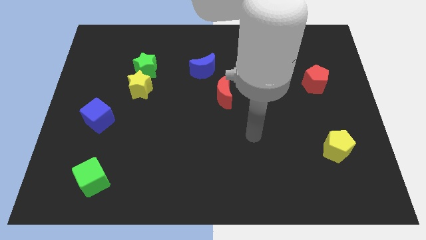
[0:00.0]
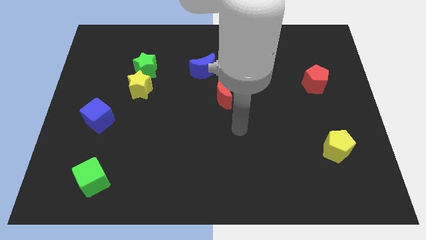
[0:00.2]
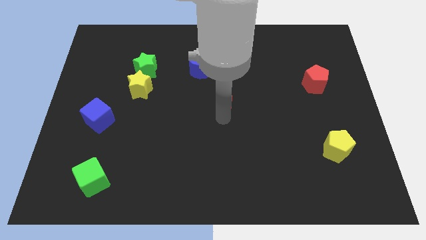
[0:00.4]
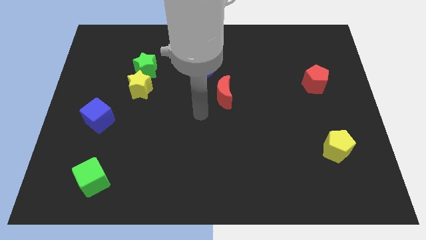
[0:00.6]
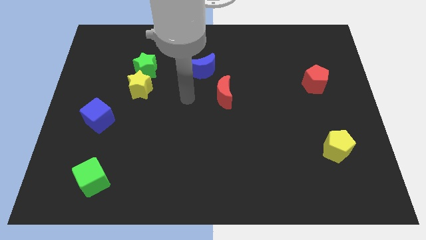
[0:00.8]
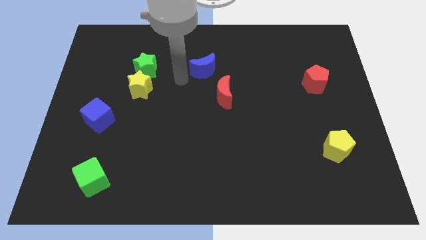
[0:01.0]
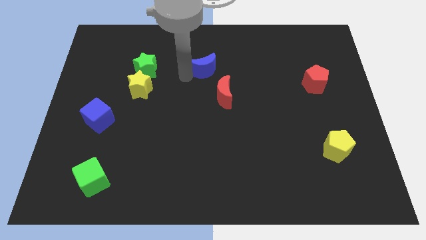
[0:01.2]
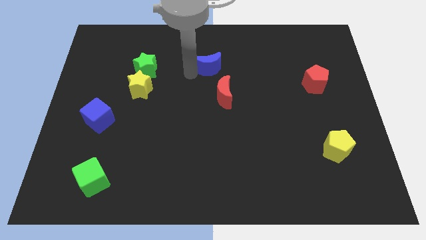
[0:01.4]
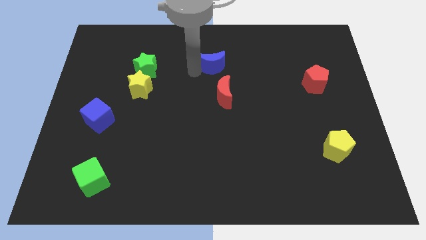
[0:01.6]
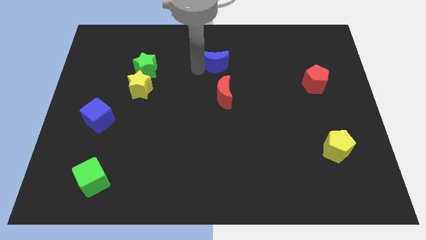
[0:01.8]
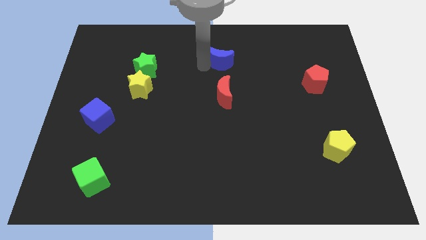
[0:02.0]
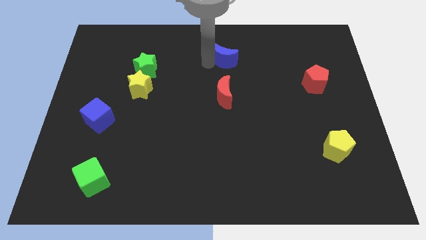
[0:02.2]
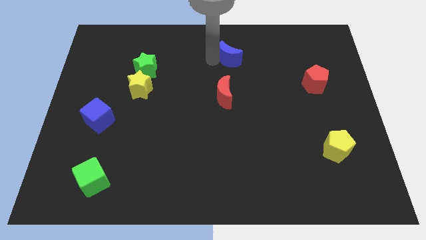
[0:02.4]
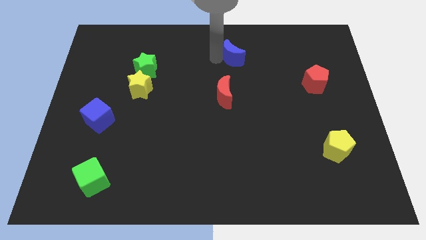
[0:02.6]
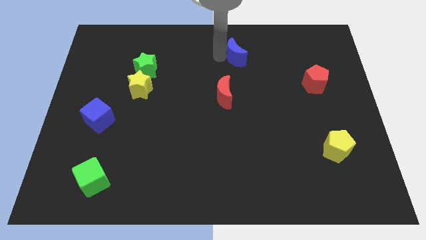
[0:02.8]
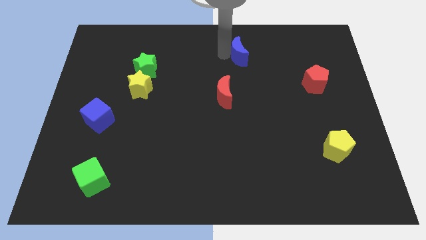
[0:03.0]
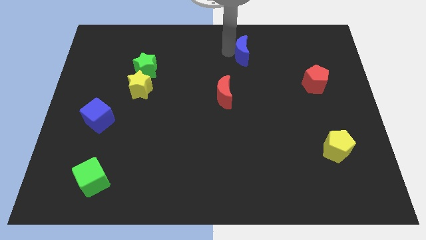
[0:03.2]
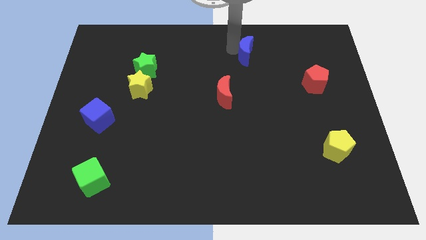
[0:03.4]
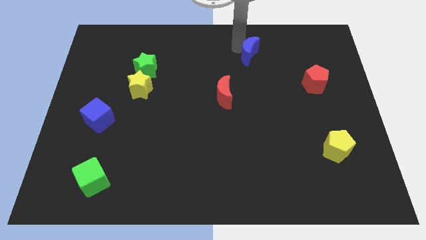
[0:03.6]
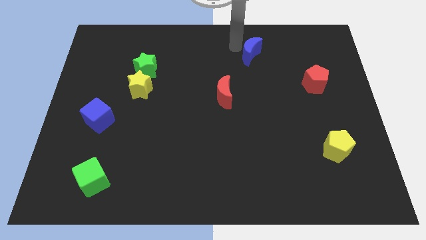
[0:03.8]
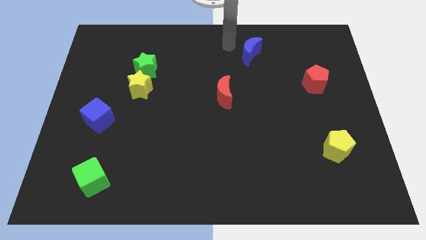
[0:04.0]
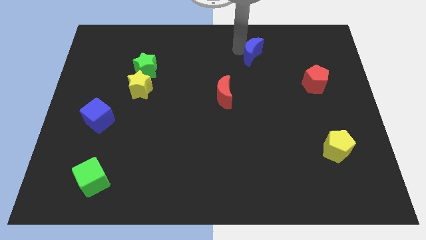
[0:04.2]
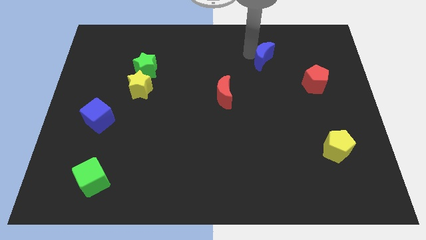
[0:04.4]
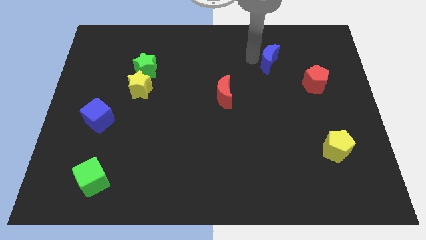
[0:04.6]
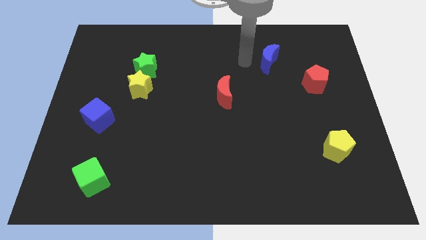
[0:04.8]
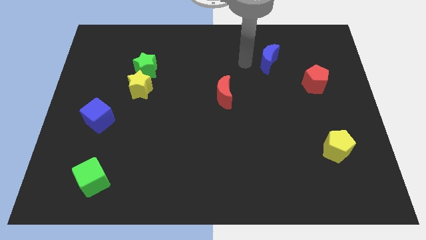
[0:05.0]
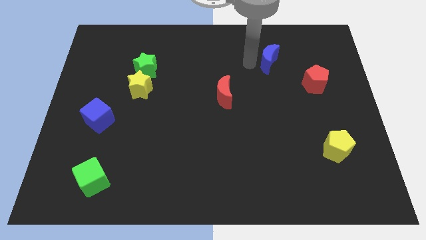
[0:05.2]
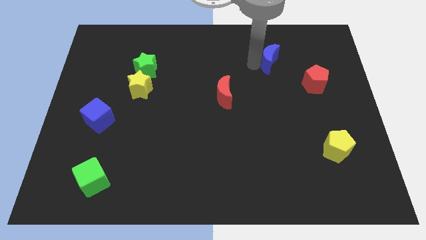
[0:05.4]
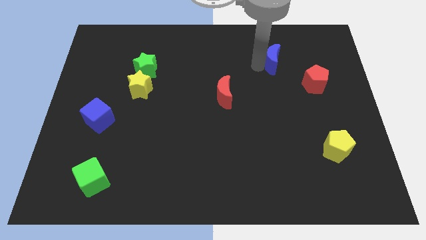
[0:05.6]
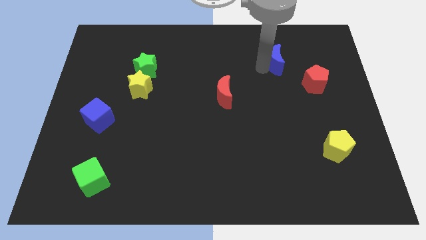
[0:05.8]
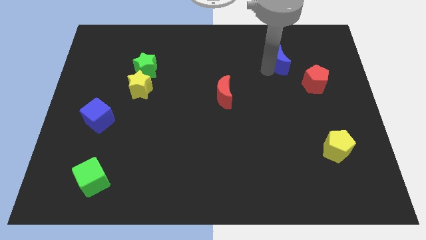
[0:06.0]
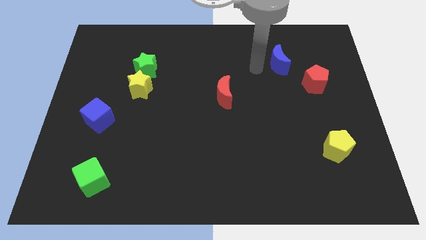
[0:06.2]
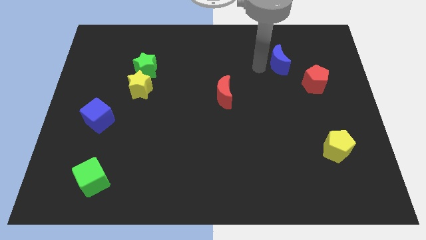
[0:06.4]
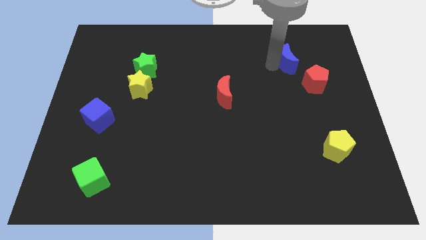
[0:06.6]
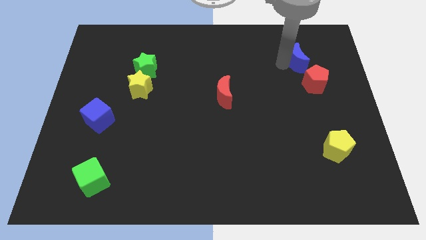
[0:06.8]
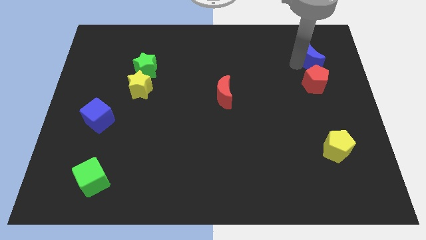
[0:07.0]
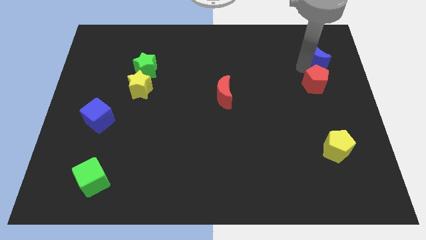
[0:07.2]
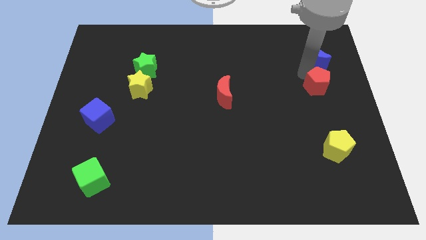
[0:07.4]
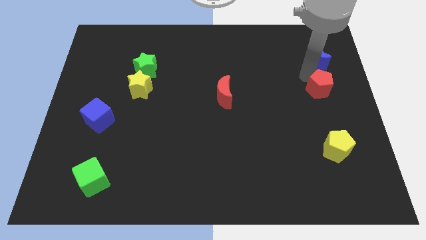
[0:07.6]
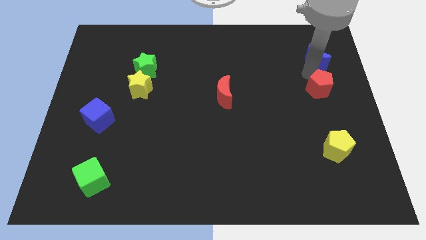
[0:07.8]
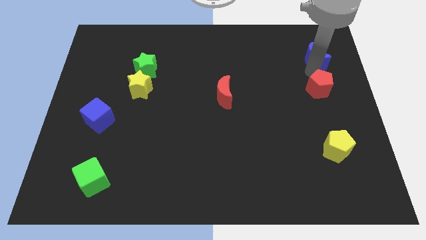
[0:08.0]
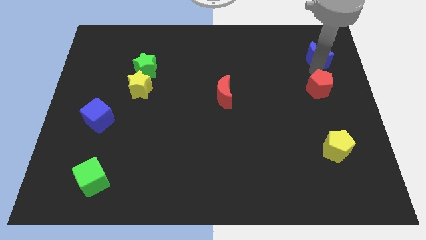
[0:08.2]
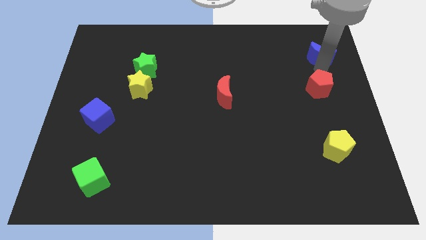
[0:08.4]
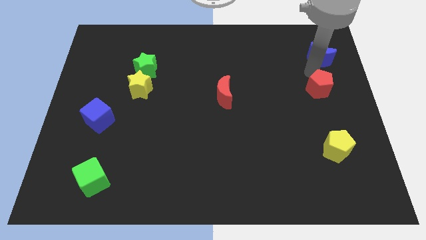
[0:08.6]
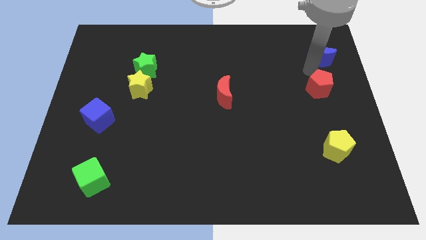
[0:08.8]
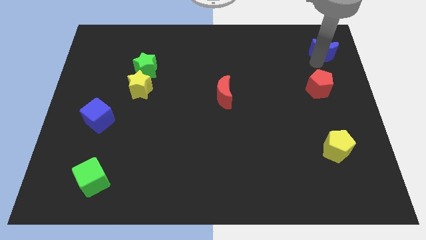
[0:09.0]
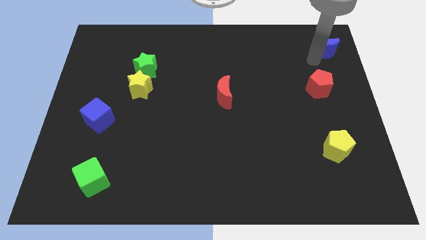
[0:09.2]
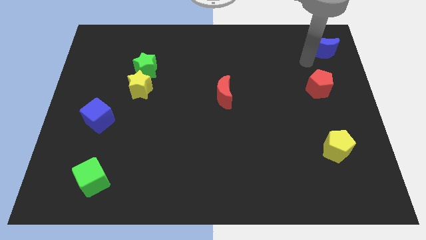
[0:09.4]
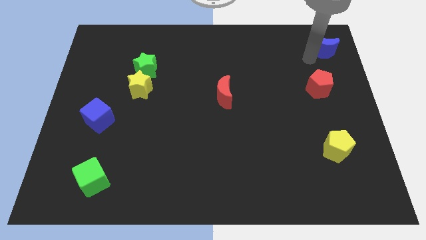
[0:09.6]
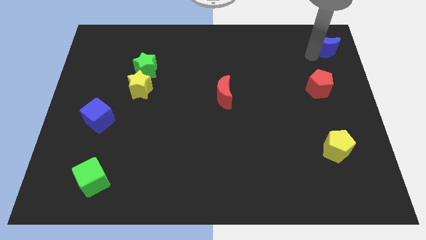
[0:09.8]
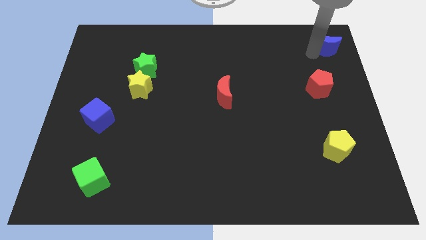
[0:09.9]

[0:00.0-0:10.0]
push the blue moon to the top right corner

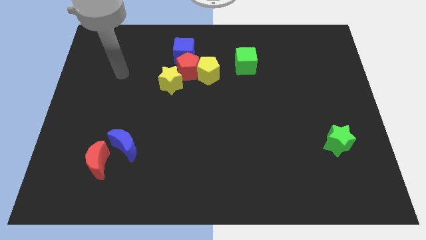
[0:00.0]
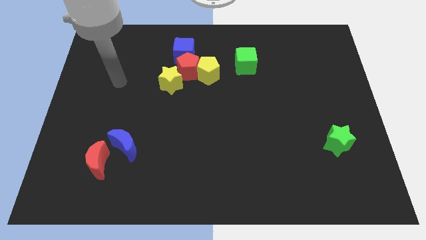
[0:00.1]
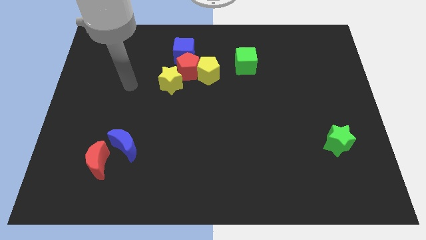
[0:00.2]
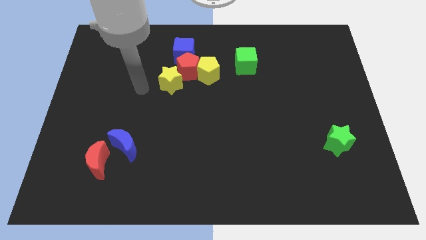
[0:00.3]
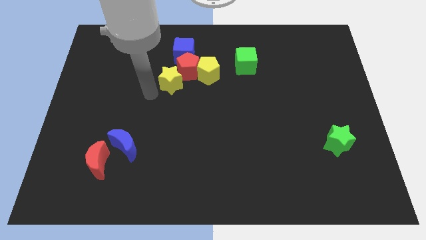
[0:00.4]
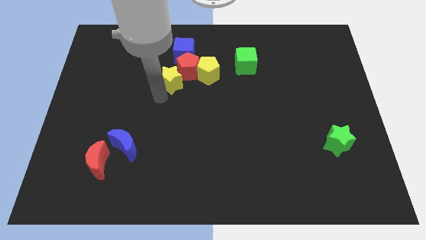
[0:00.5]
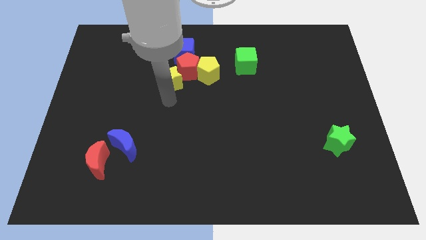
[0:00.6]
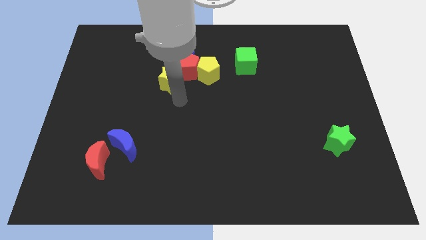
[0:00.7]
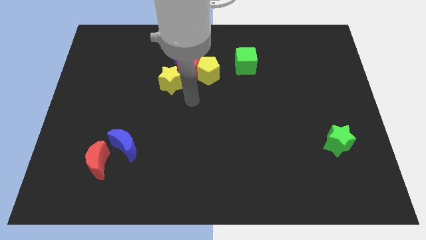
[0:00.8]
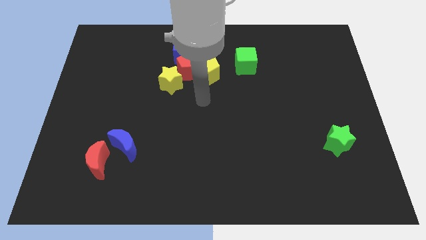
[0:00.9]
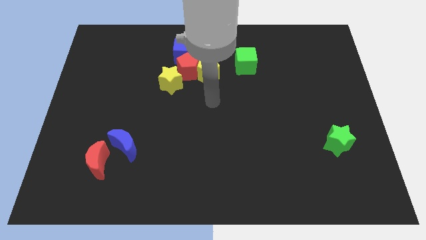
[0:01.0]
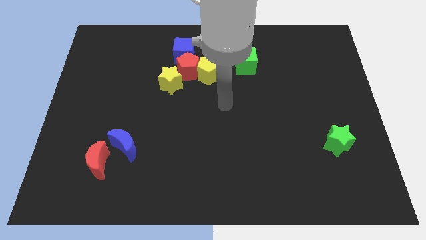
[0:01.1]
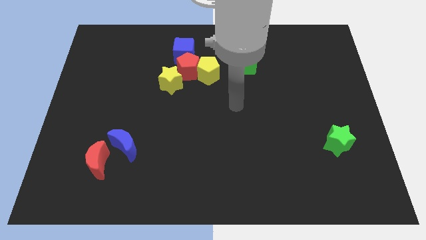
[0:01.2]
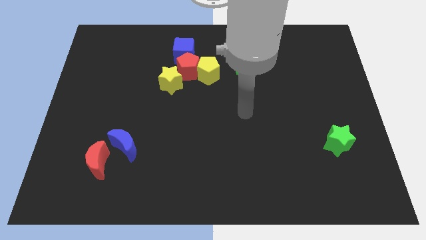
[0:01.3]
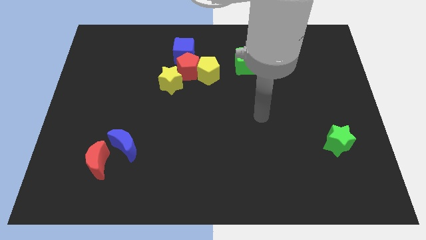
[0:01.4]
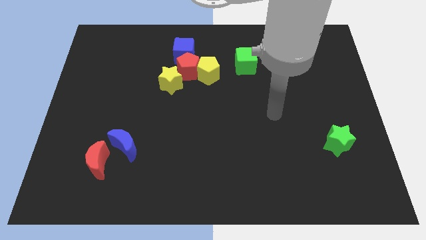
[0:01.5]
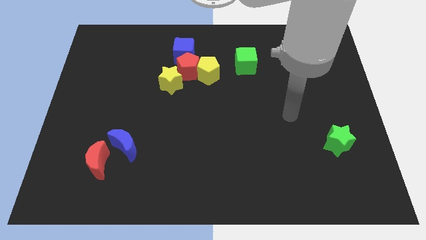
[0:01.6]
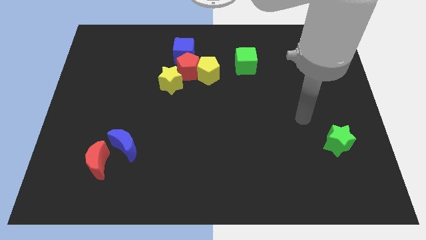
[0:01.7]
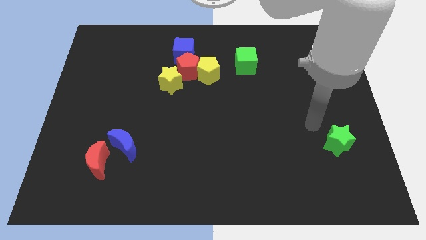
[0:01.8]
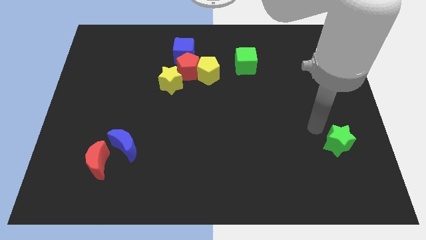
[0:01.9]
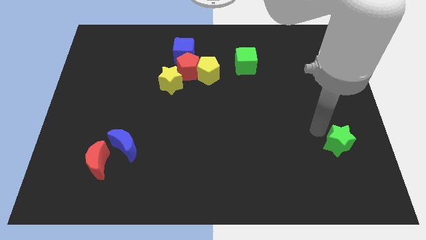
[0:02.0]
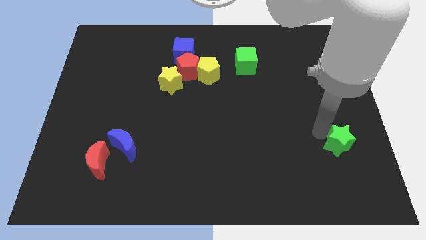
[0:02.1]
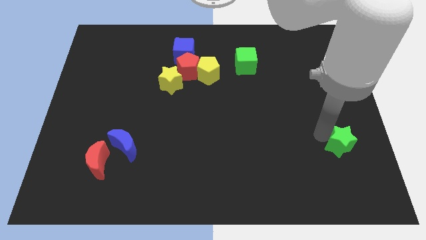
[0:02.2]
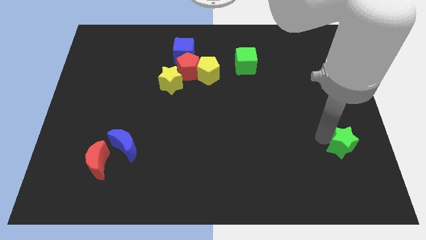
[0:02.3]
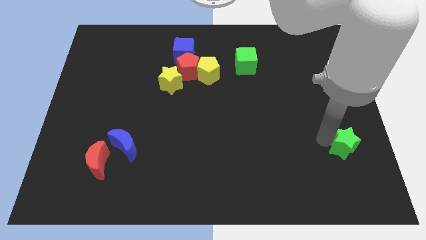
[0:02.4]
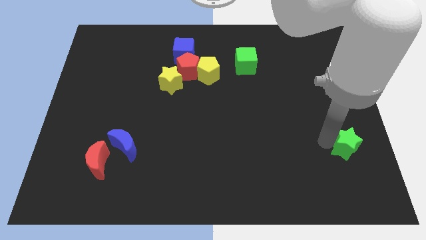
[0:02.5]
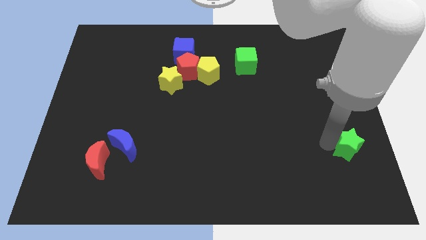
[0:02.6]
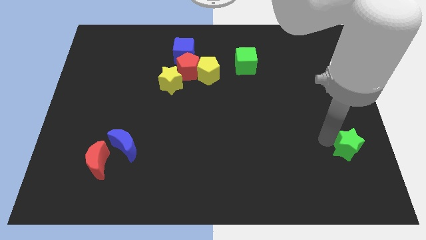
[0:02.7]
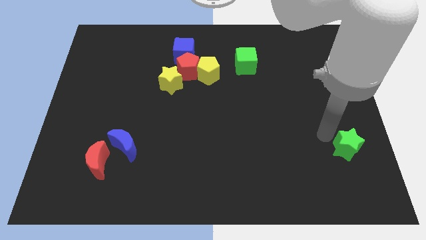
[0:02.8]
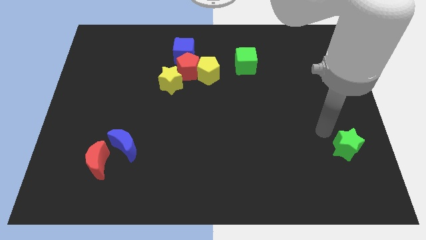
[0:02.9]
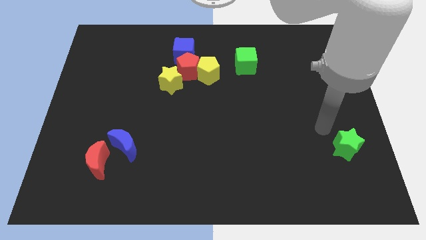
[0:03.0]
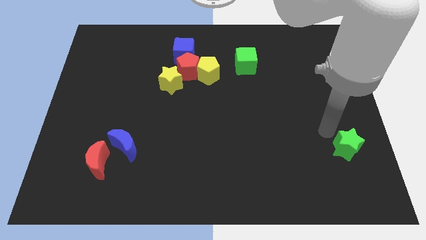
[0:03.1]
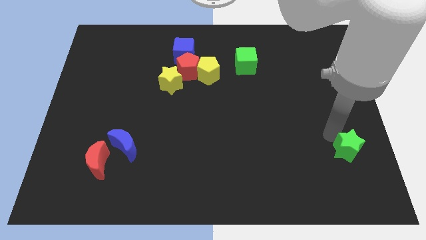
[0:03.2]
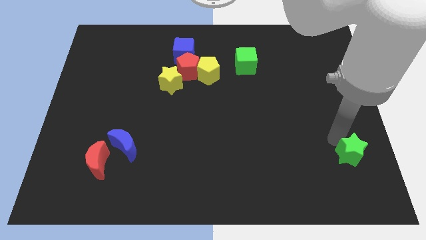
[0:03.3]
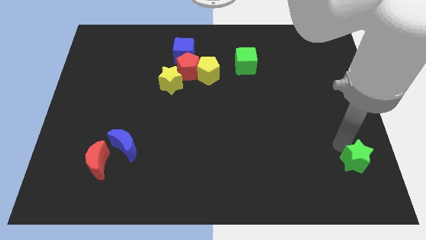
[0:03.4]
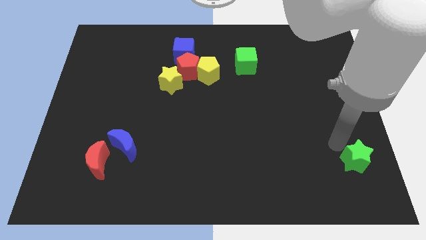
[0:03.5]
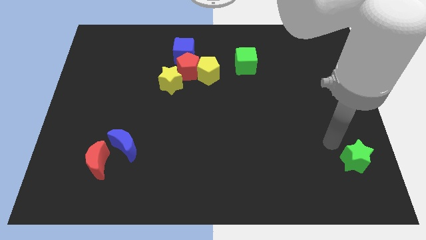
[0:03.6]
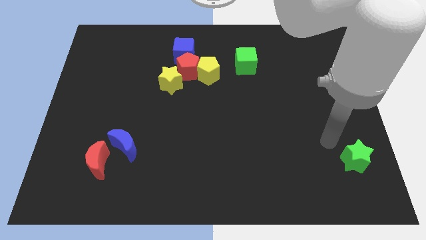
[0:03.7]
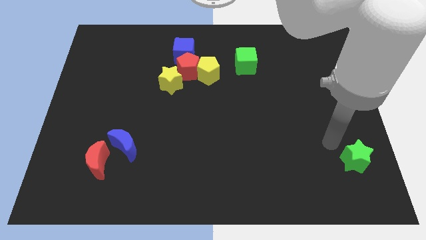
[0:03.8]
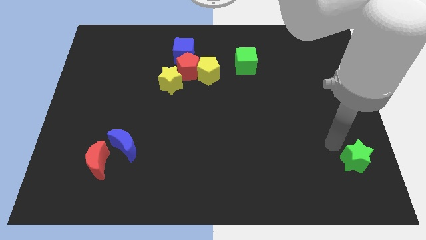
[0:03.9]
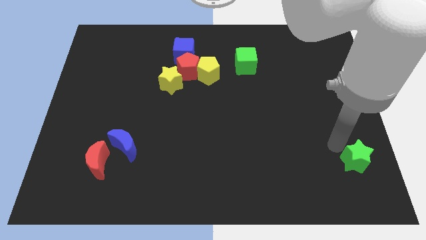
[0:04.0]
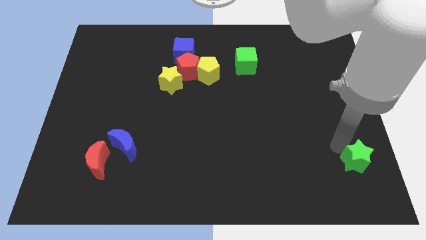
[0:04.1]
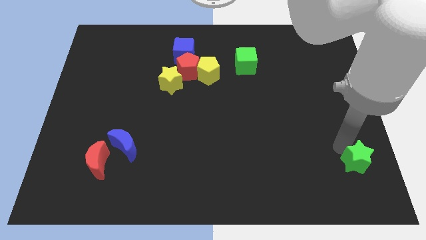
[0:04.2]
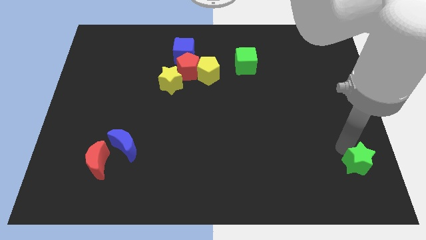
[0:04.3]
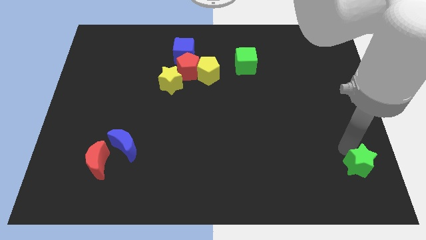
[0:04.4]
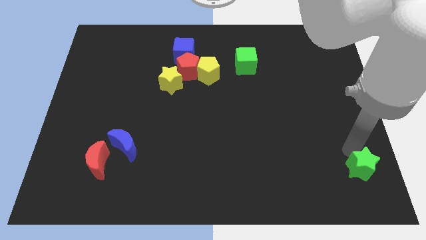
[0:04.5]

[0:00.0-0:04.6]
move the green star to the bottom right corner
